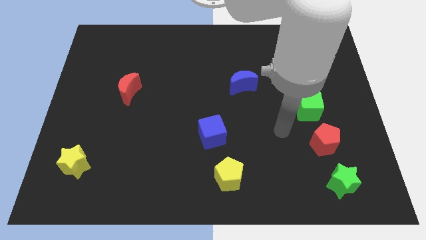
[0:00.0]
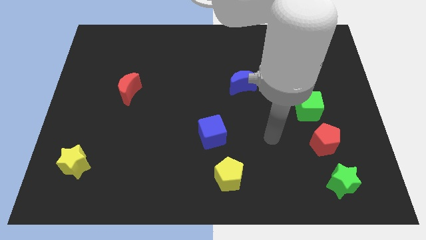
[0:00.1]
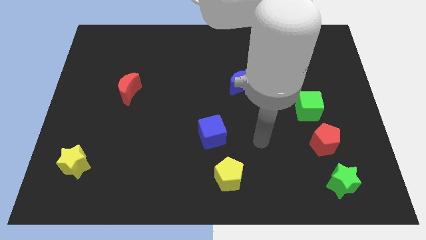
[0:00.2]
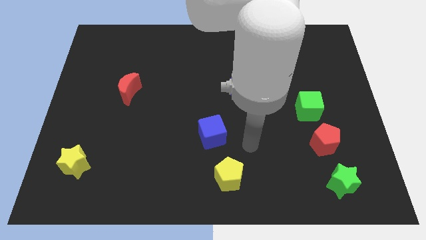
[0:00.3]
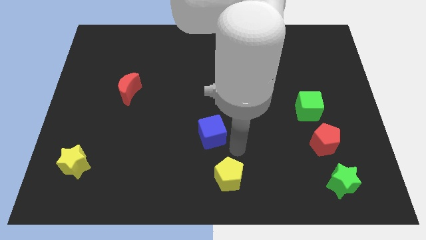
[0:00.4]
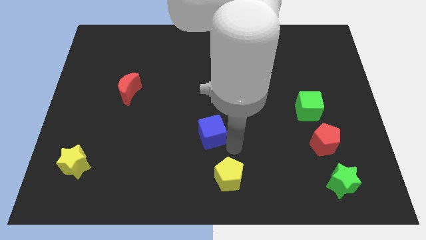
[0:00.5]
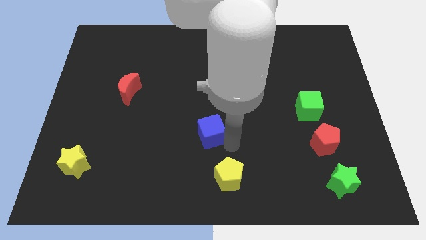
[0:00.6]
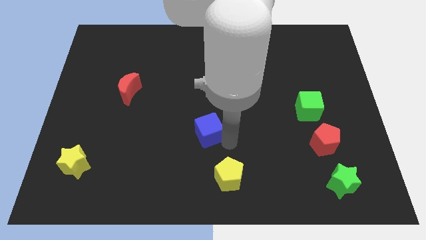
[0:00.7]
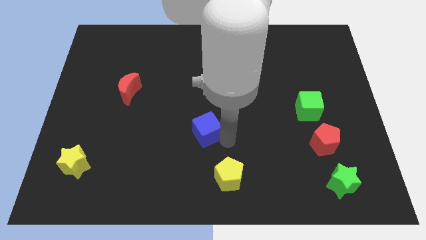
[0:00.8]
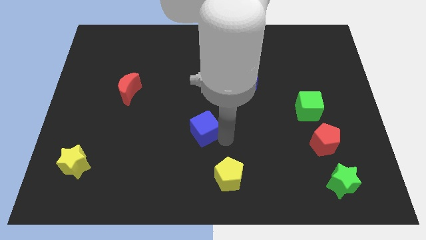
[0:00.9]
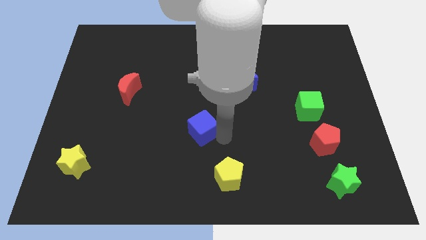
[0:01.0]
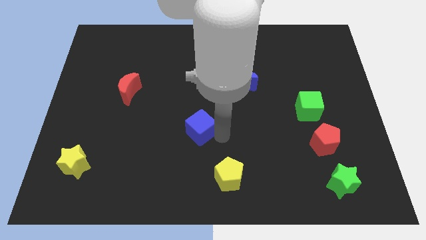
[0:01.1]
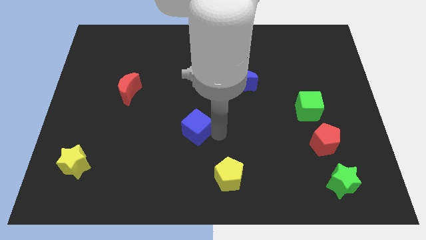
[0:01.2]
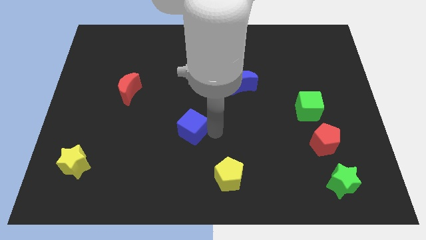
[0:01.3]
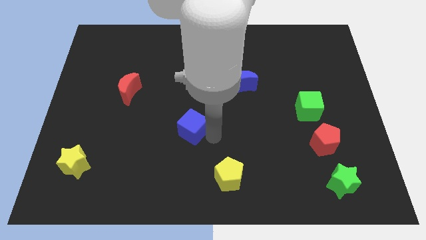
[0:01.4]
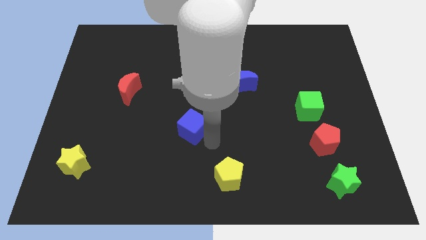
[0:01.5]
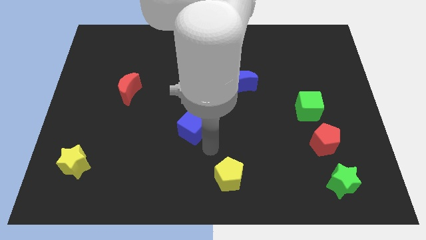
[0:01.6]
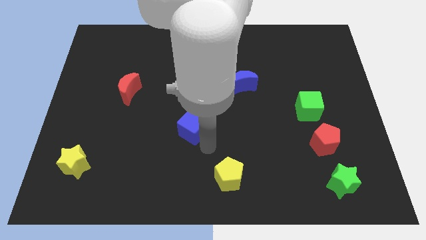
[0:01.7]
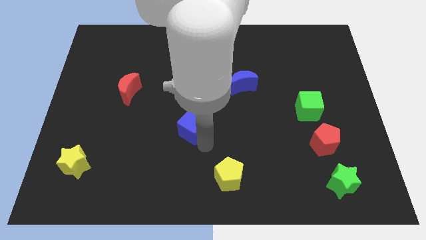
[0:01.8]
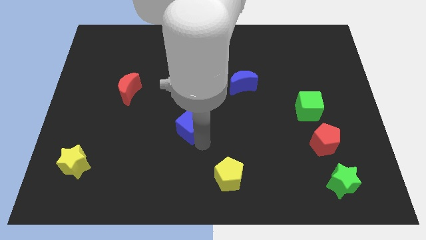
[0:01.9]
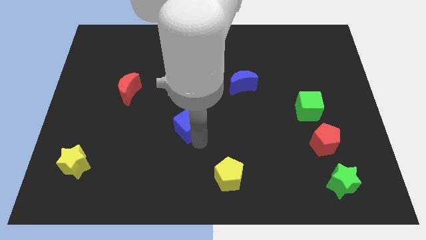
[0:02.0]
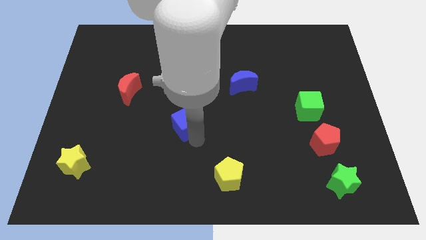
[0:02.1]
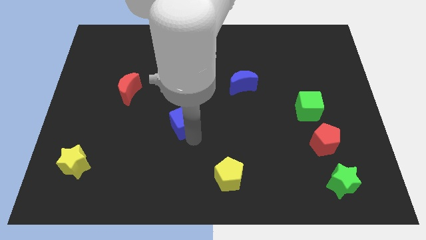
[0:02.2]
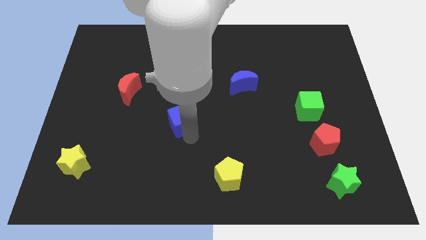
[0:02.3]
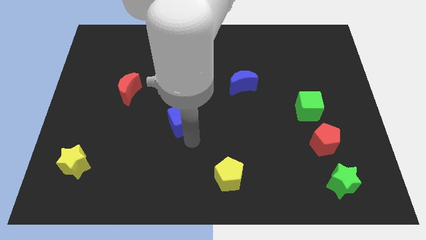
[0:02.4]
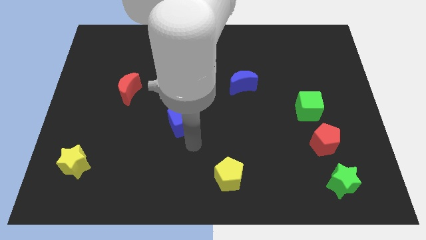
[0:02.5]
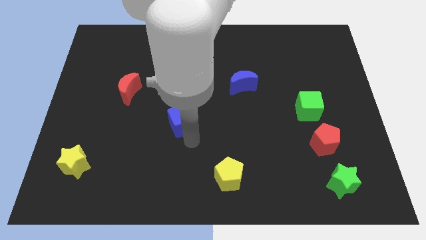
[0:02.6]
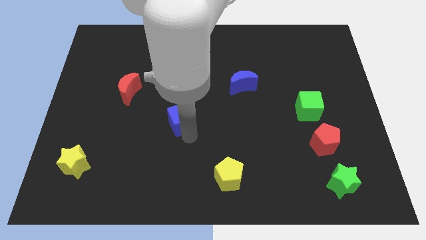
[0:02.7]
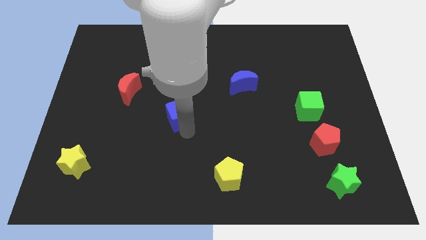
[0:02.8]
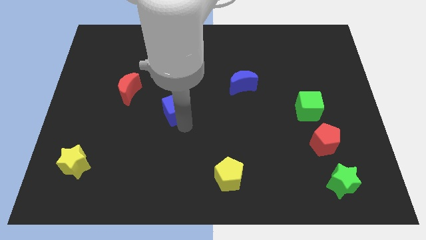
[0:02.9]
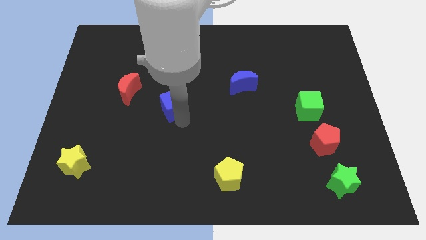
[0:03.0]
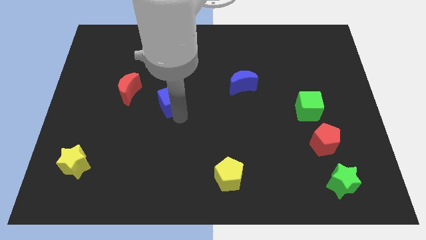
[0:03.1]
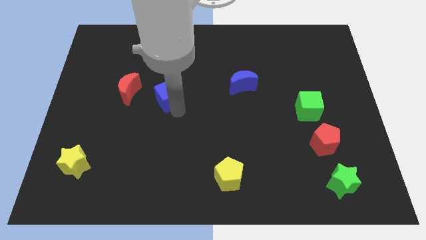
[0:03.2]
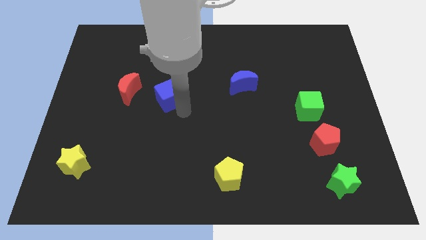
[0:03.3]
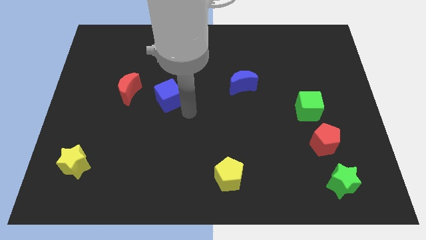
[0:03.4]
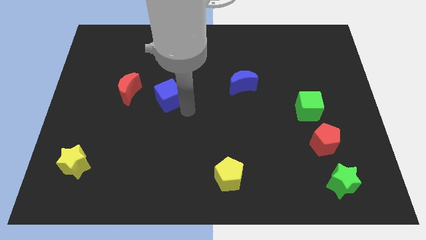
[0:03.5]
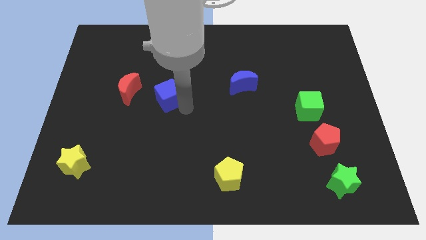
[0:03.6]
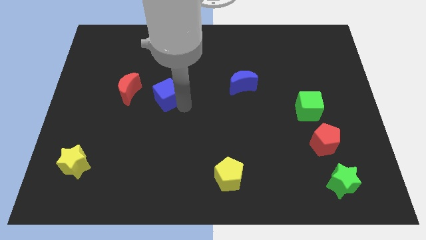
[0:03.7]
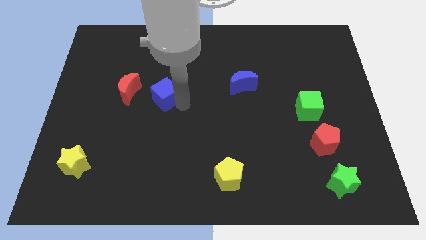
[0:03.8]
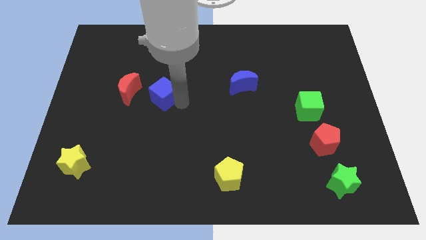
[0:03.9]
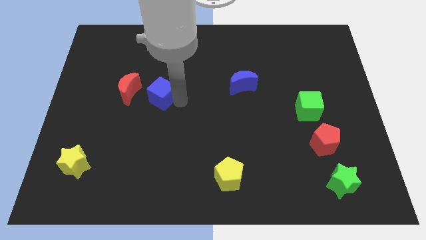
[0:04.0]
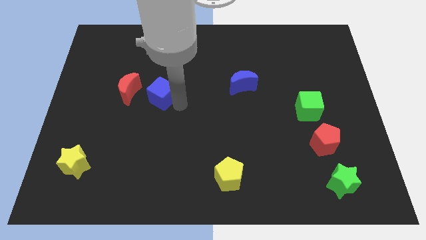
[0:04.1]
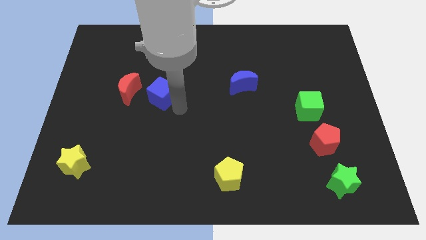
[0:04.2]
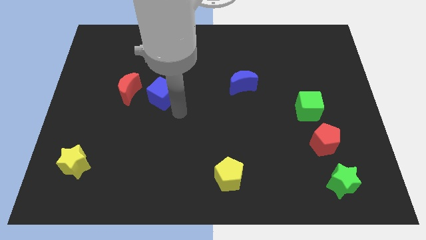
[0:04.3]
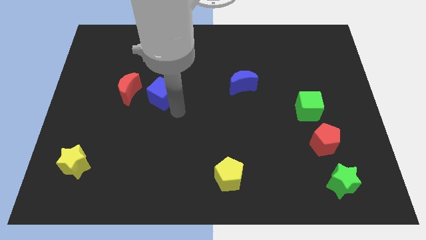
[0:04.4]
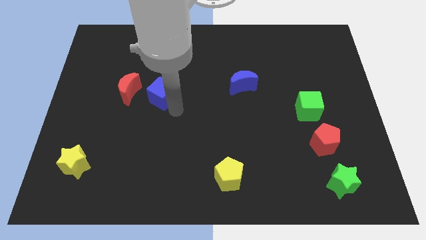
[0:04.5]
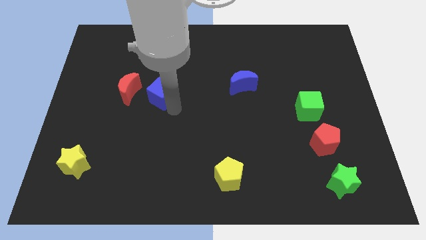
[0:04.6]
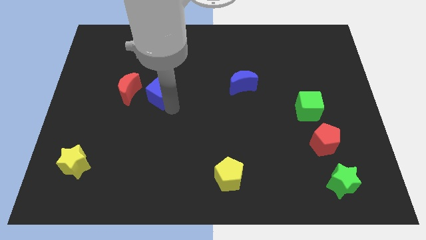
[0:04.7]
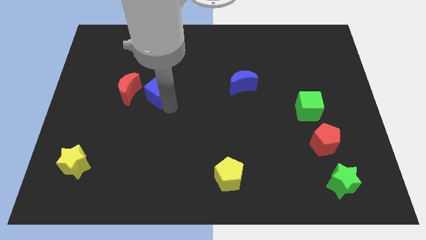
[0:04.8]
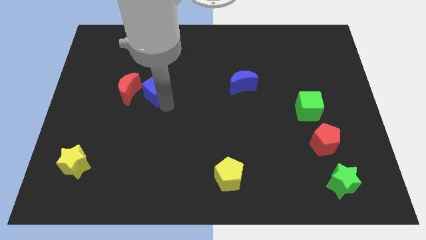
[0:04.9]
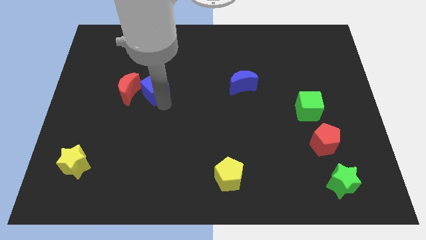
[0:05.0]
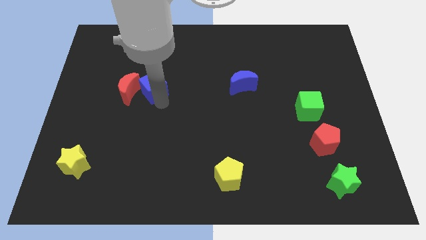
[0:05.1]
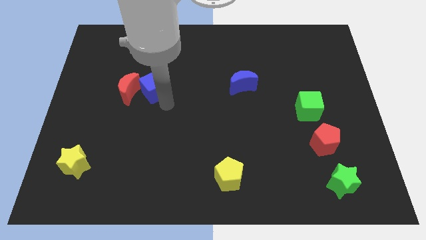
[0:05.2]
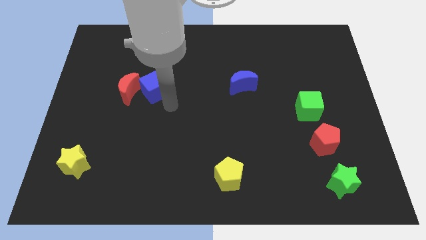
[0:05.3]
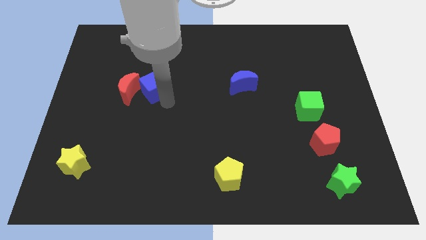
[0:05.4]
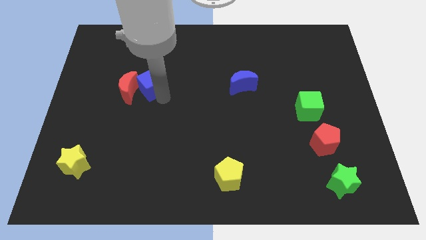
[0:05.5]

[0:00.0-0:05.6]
move the blue cube upwards and left

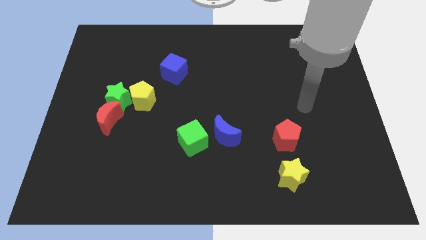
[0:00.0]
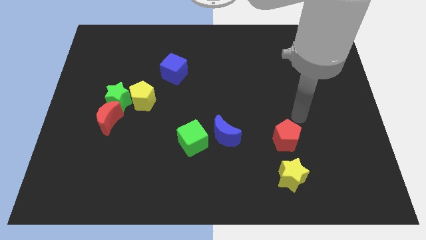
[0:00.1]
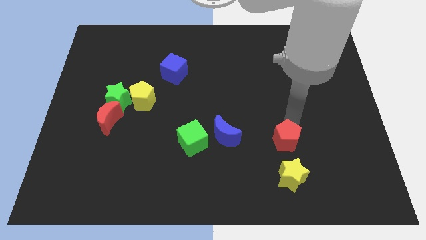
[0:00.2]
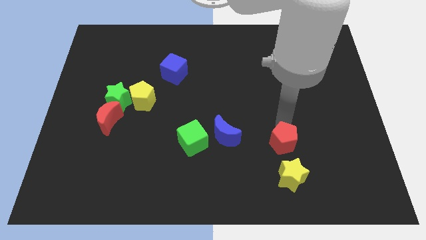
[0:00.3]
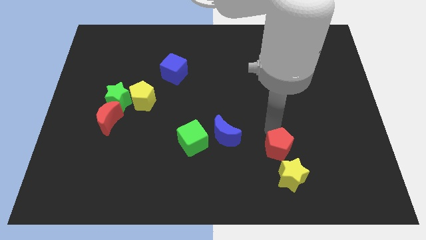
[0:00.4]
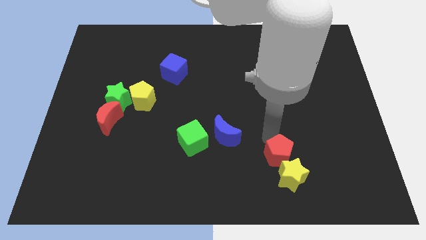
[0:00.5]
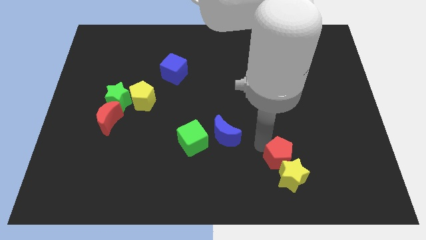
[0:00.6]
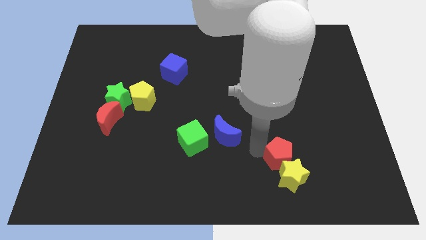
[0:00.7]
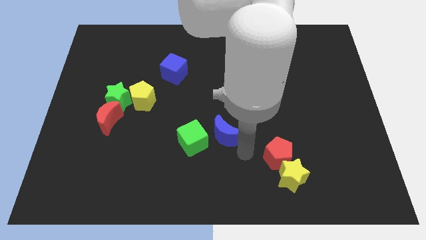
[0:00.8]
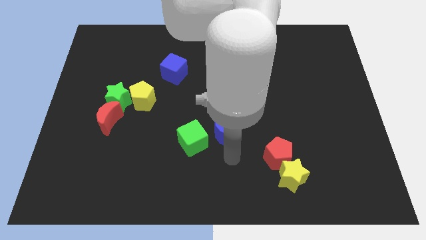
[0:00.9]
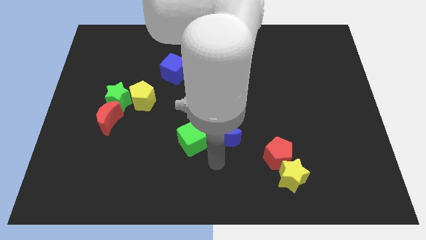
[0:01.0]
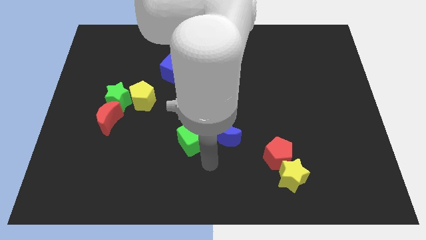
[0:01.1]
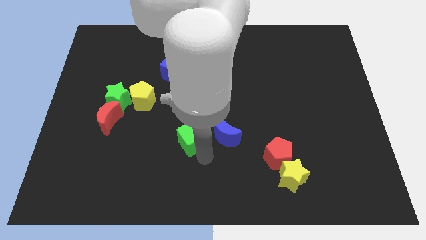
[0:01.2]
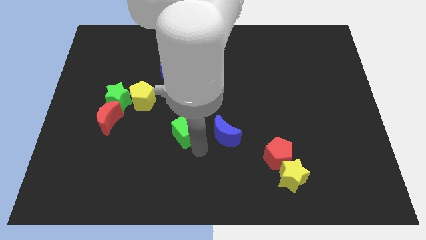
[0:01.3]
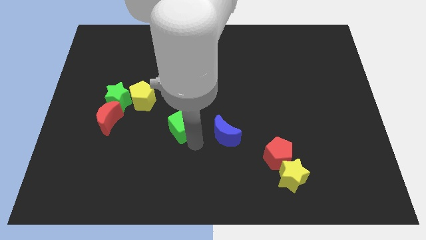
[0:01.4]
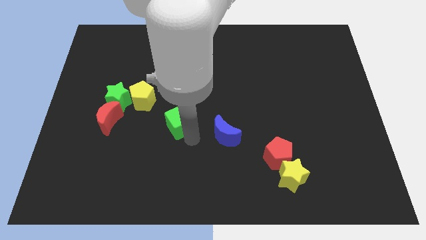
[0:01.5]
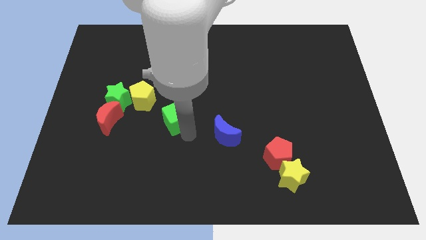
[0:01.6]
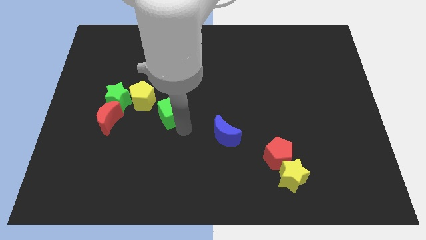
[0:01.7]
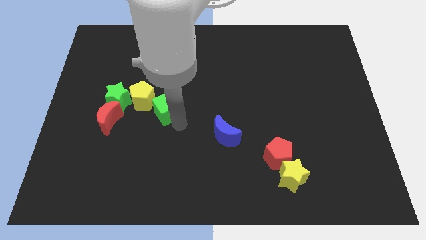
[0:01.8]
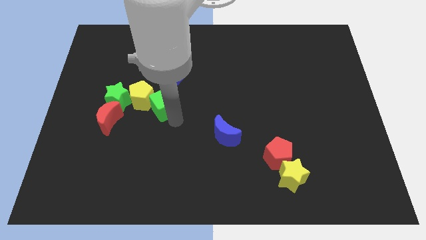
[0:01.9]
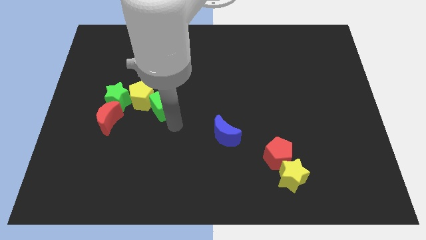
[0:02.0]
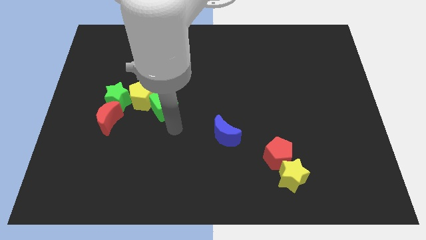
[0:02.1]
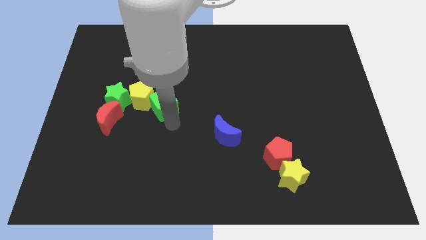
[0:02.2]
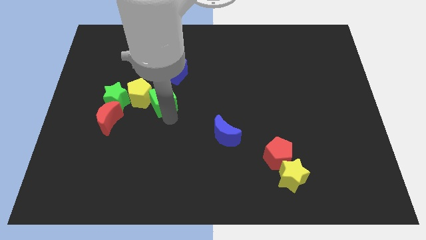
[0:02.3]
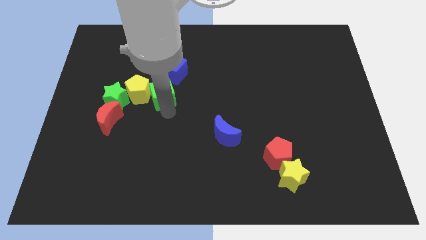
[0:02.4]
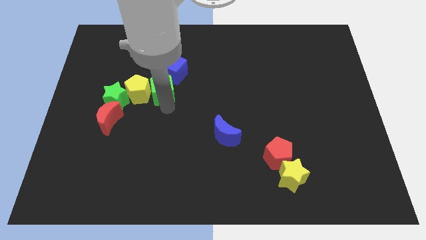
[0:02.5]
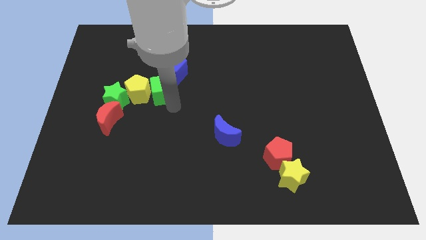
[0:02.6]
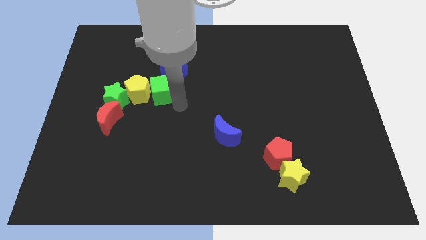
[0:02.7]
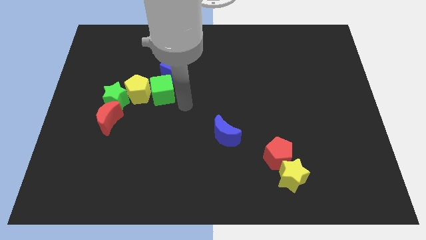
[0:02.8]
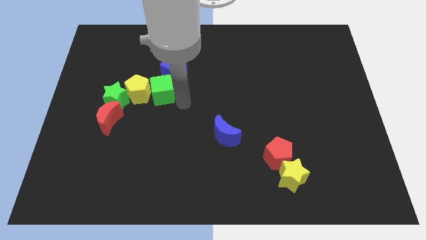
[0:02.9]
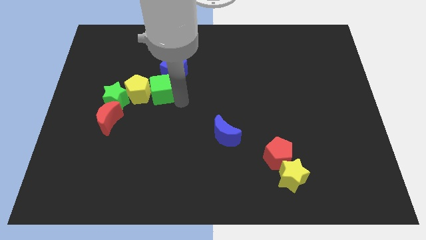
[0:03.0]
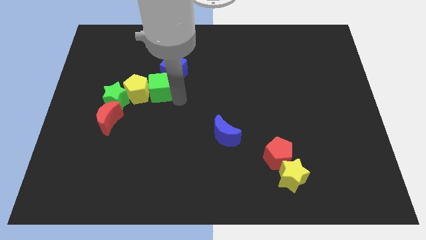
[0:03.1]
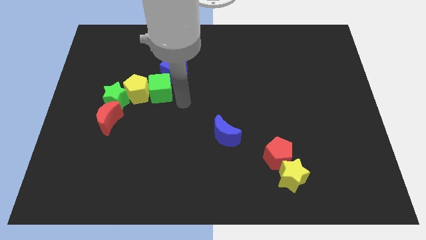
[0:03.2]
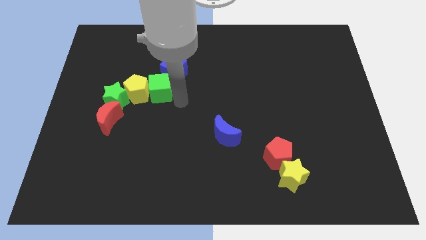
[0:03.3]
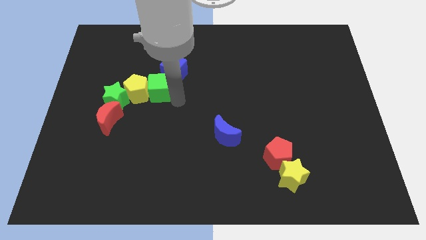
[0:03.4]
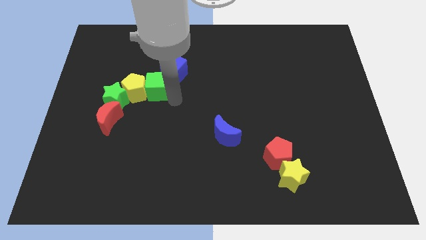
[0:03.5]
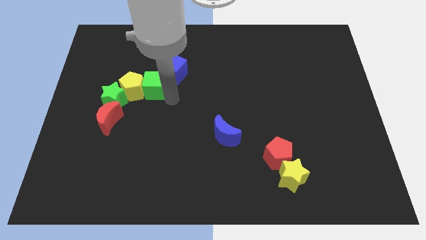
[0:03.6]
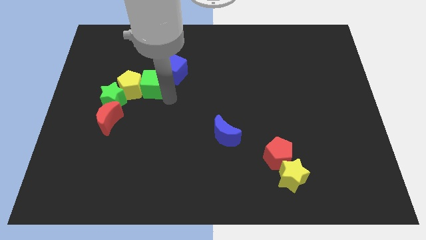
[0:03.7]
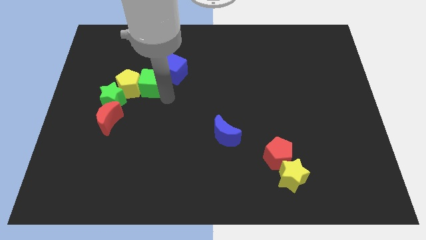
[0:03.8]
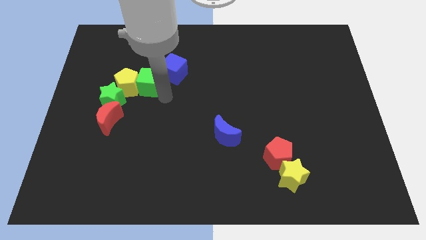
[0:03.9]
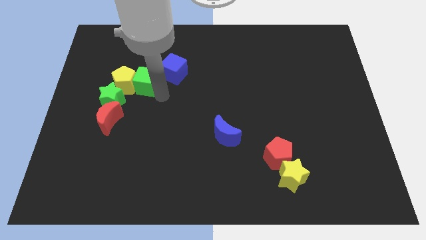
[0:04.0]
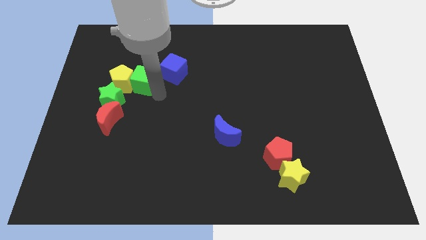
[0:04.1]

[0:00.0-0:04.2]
move the green cube up and left diagonally
